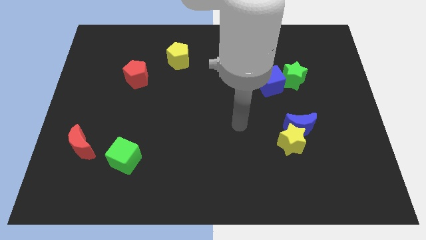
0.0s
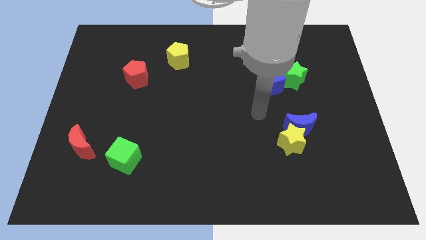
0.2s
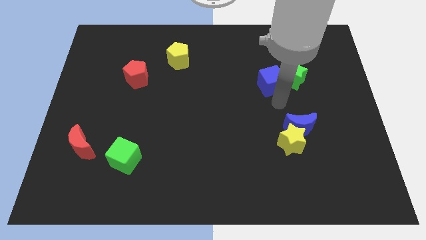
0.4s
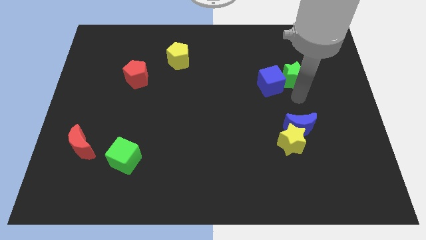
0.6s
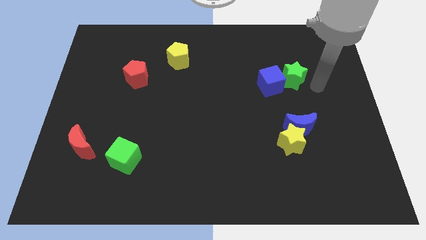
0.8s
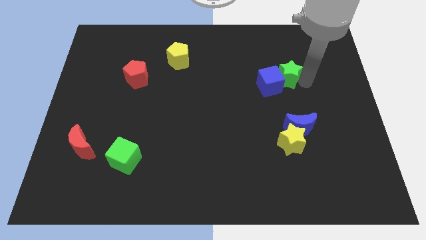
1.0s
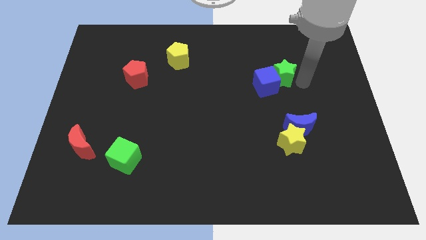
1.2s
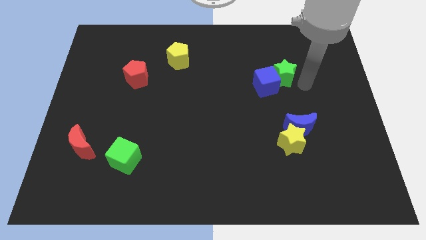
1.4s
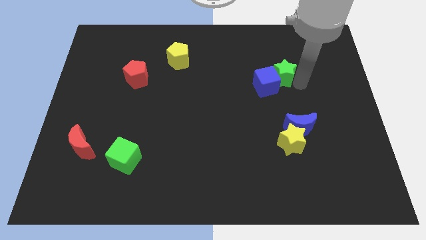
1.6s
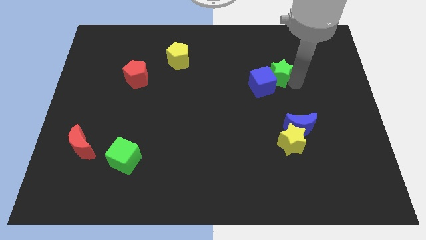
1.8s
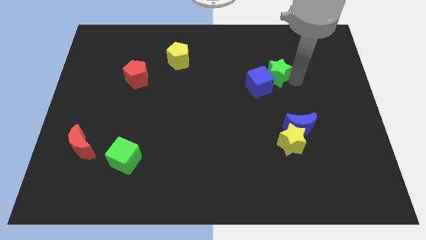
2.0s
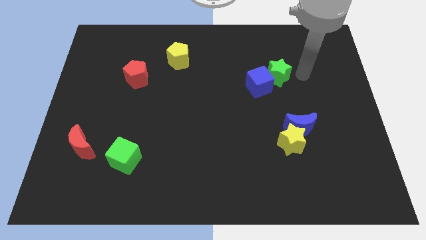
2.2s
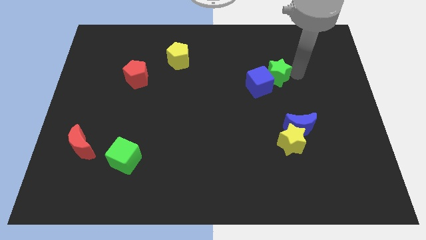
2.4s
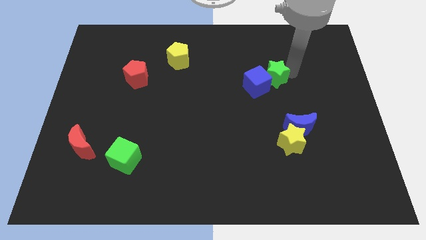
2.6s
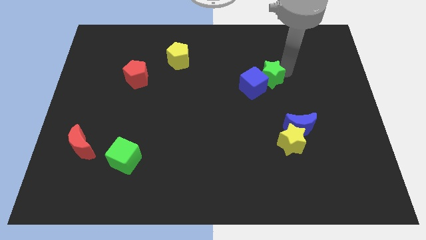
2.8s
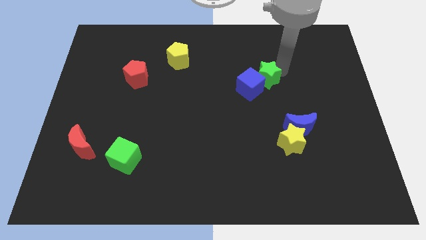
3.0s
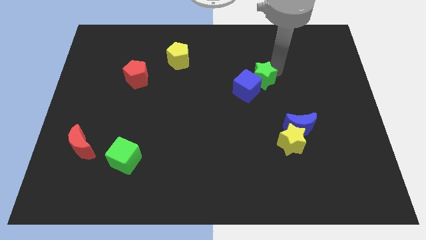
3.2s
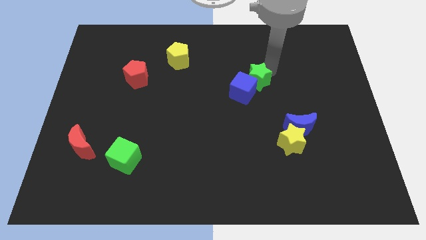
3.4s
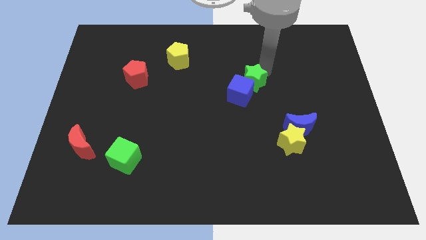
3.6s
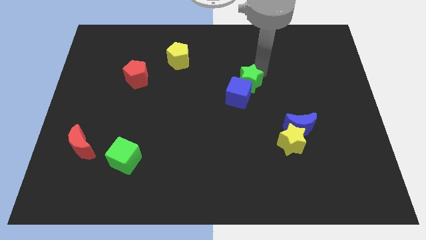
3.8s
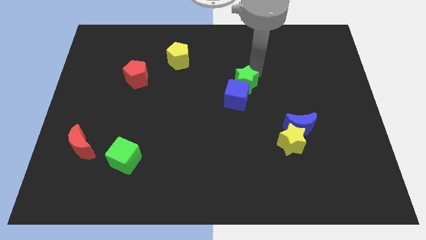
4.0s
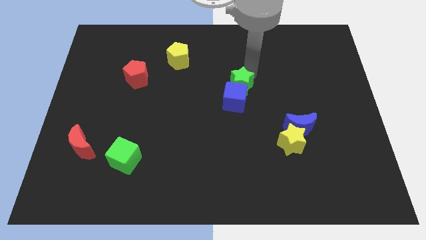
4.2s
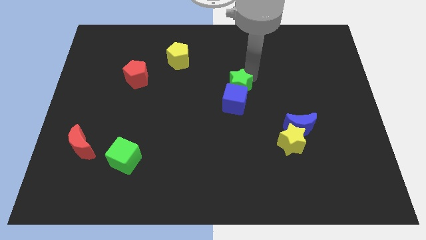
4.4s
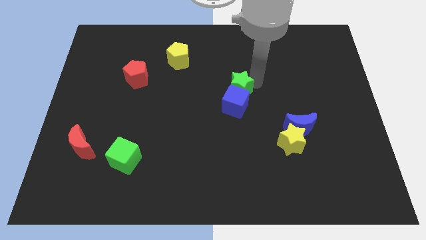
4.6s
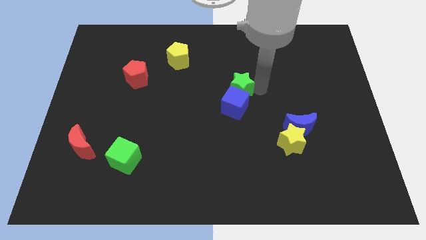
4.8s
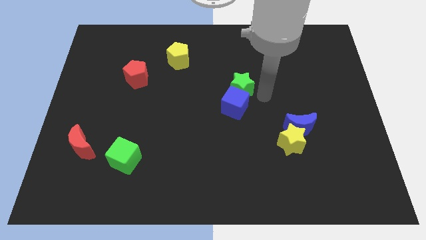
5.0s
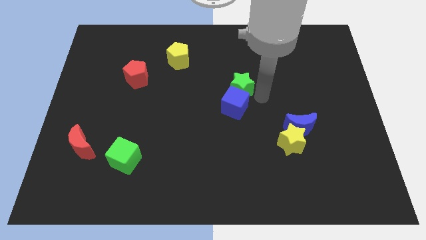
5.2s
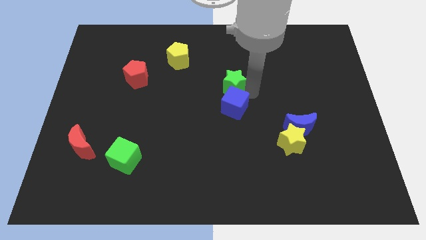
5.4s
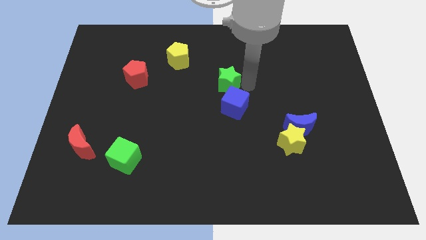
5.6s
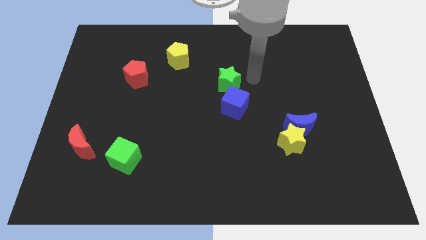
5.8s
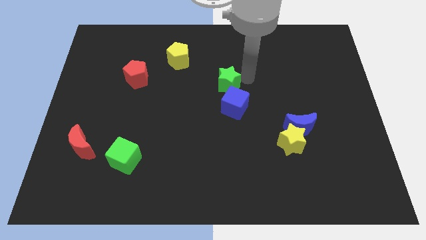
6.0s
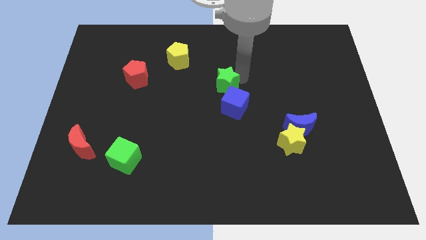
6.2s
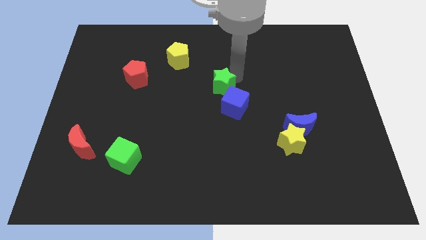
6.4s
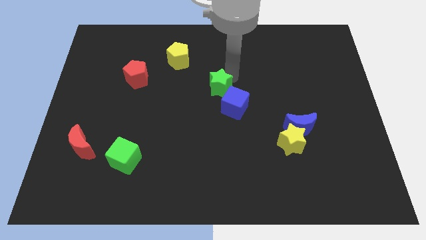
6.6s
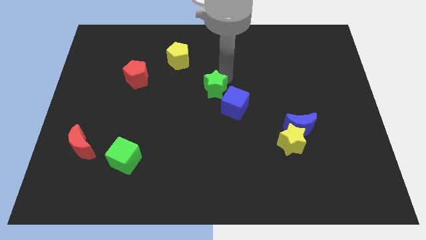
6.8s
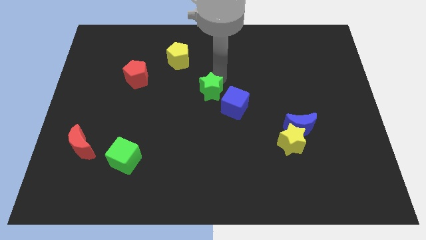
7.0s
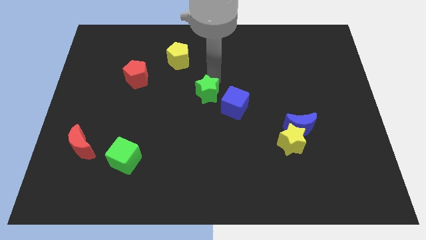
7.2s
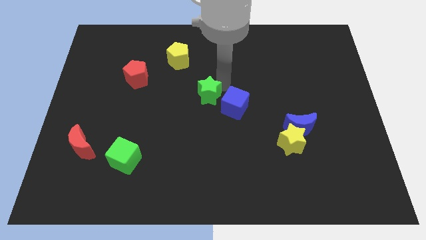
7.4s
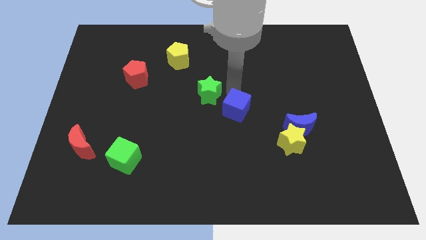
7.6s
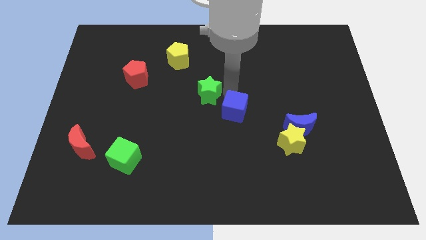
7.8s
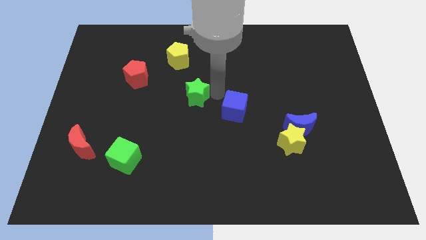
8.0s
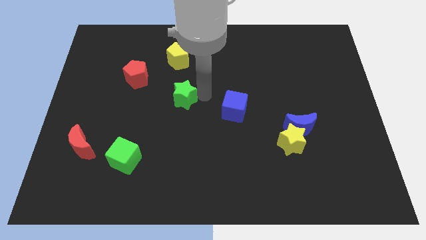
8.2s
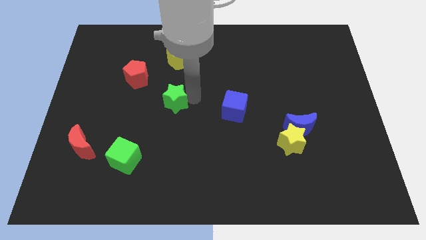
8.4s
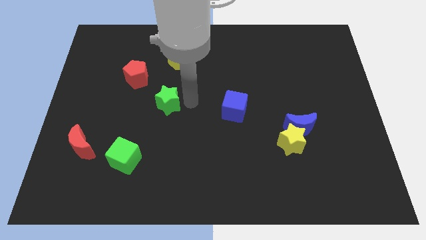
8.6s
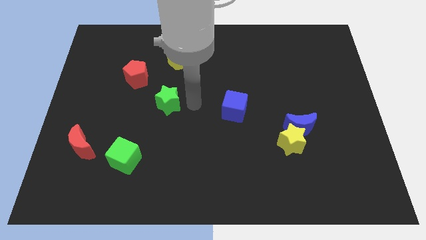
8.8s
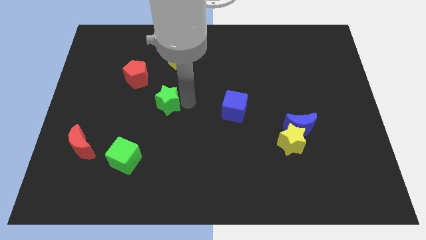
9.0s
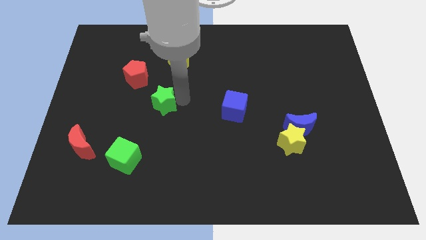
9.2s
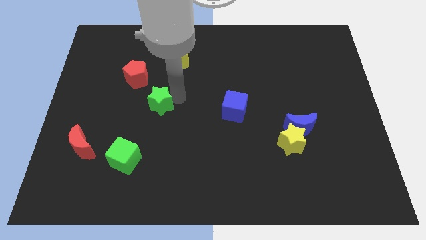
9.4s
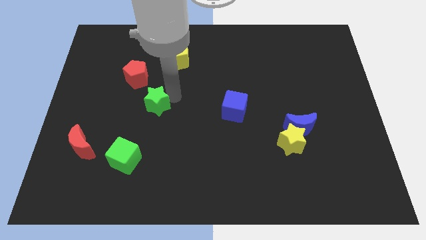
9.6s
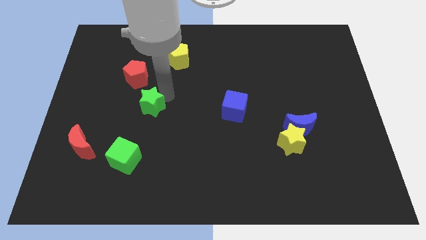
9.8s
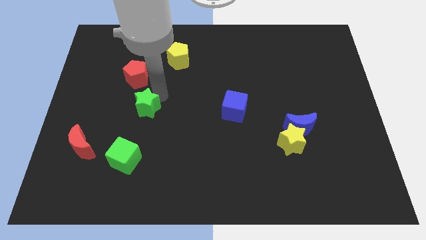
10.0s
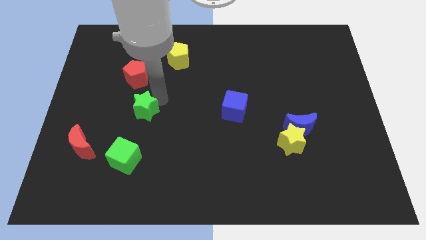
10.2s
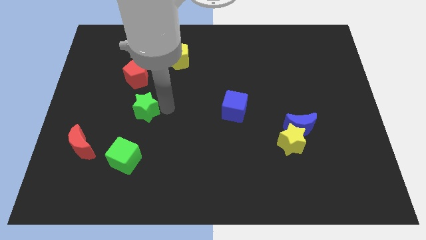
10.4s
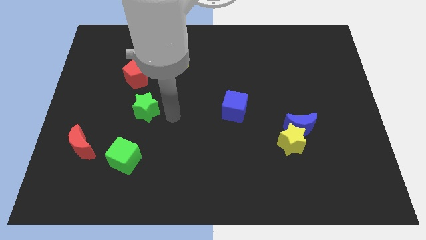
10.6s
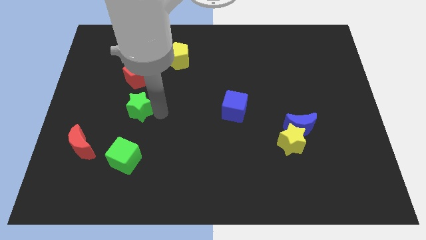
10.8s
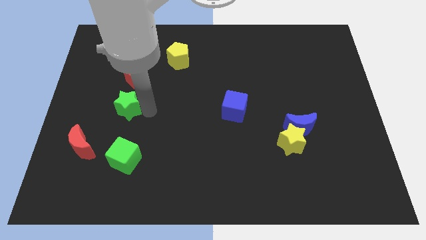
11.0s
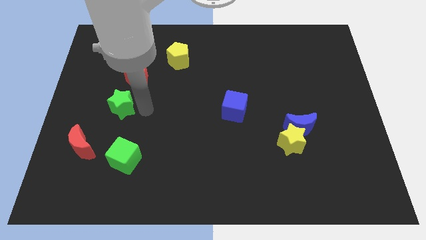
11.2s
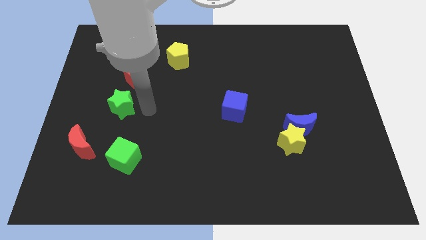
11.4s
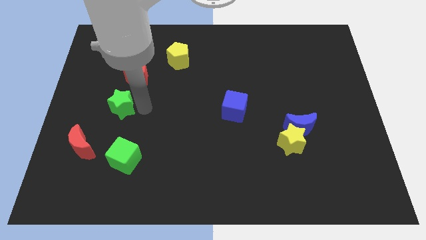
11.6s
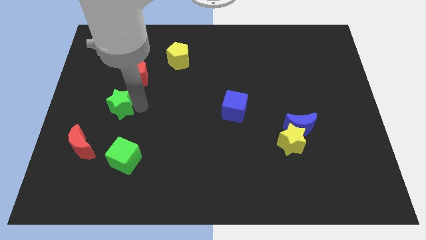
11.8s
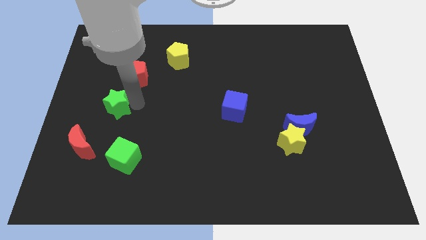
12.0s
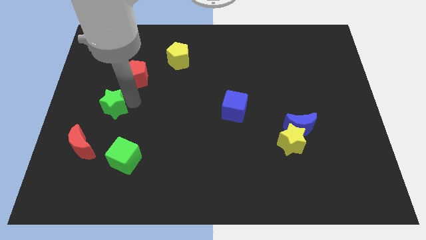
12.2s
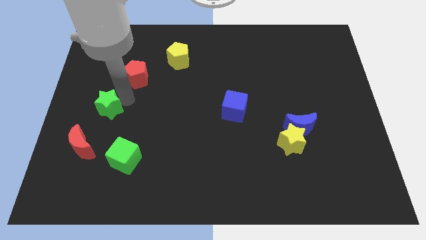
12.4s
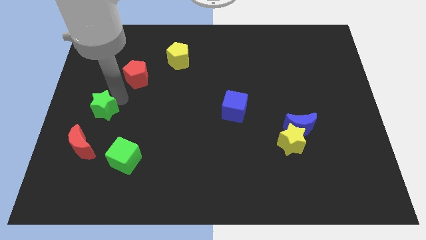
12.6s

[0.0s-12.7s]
push the green star to the left side

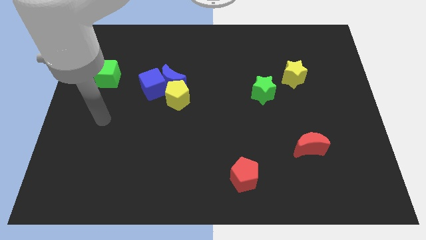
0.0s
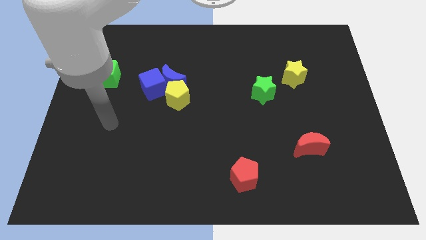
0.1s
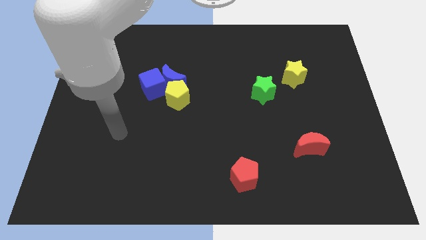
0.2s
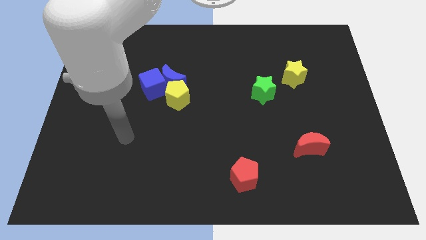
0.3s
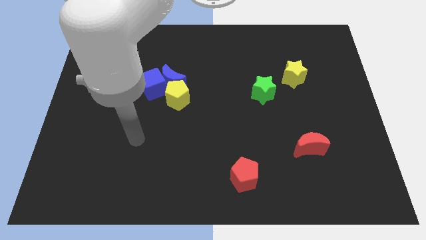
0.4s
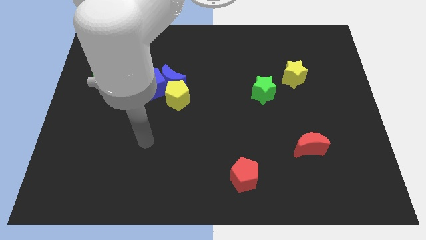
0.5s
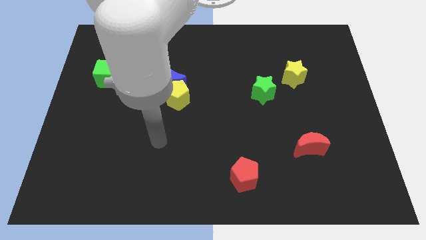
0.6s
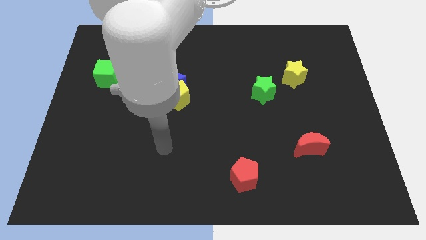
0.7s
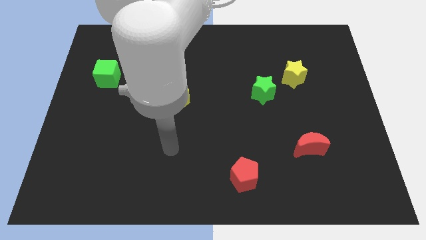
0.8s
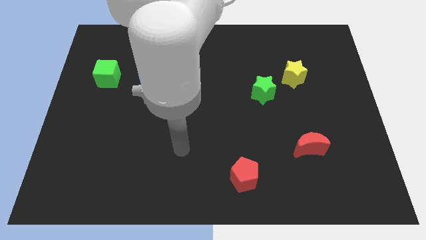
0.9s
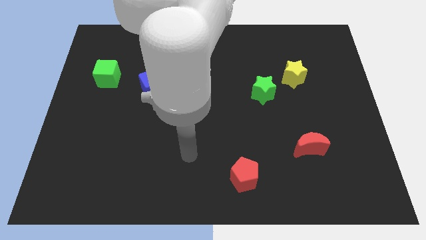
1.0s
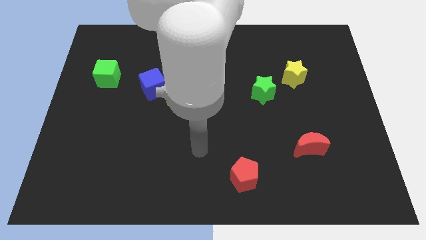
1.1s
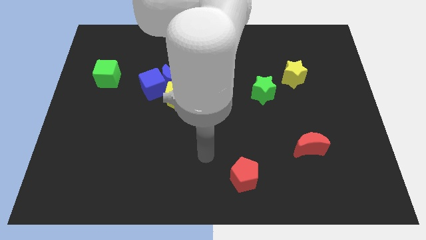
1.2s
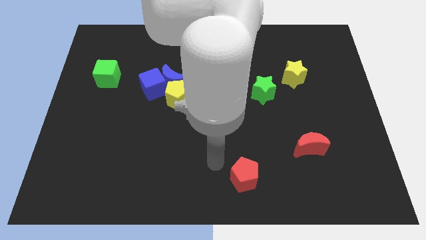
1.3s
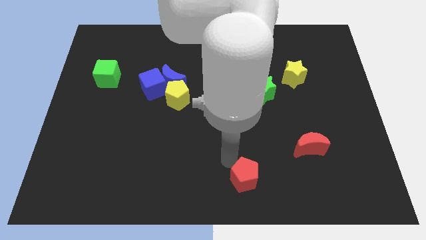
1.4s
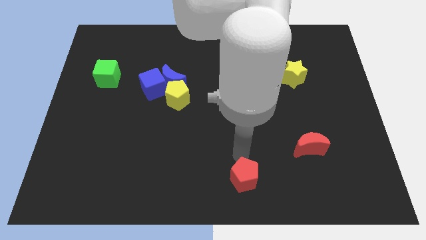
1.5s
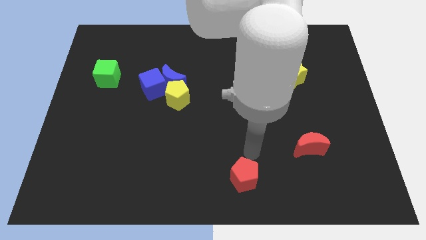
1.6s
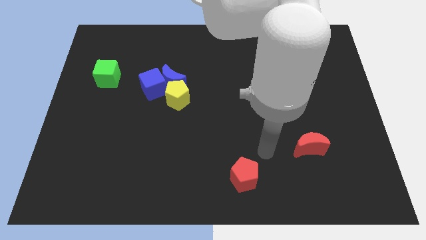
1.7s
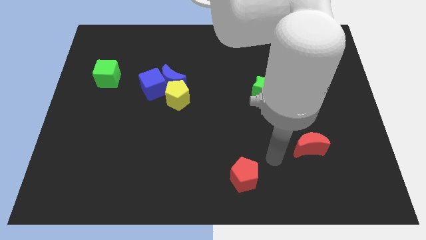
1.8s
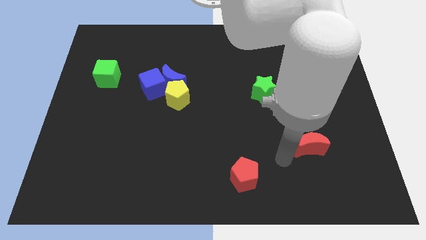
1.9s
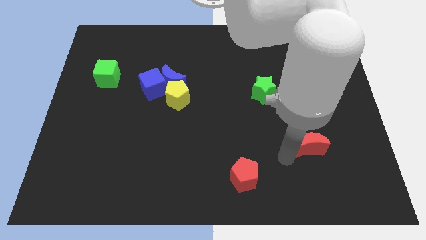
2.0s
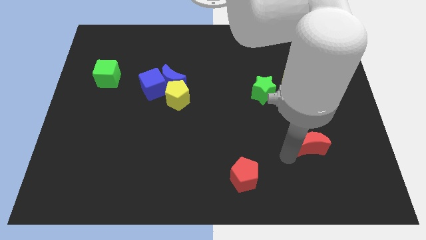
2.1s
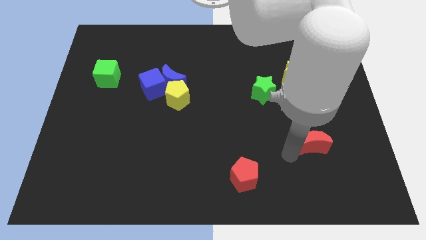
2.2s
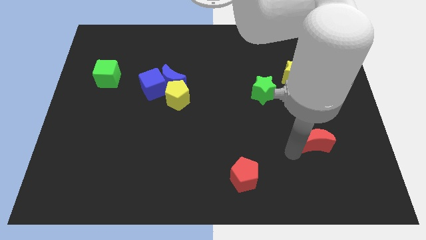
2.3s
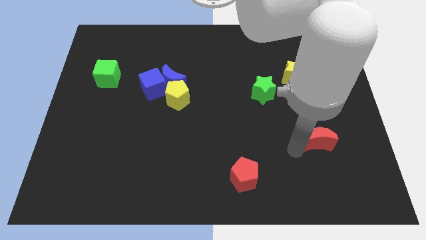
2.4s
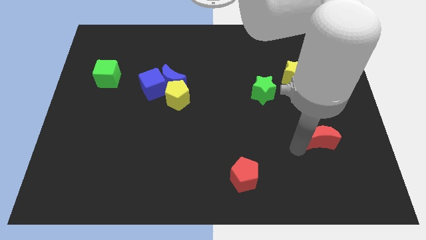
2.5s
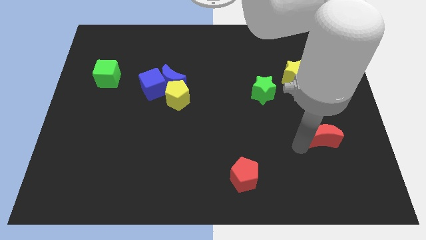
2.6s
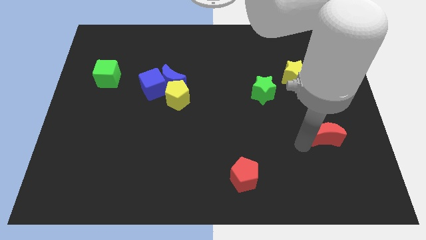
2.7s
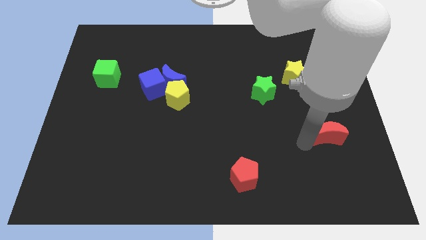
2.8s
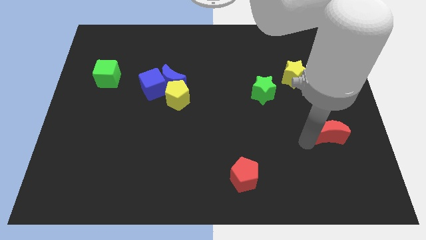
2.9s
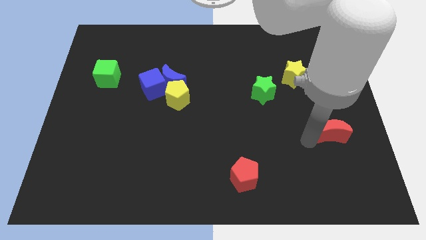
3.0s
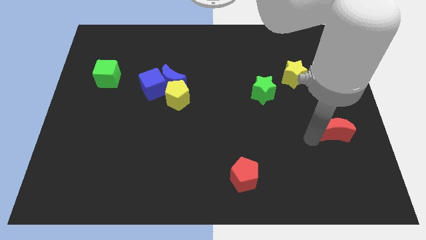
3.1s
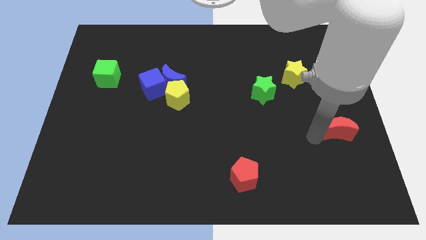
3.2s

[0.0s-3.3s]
move the red moon to the right side of the board
